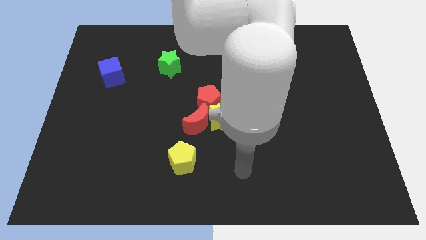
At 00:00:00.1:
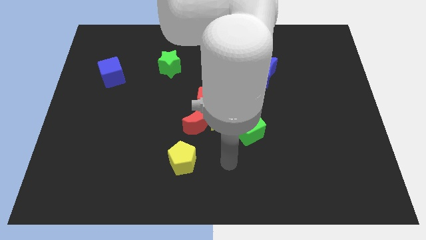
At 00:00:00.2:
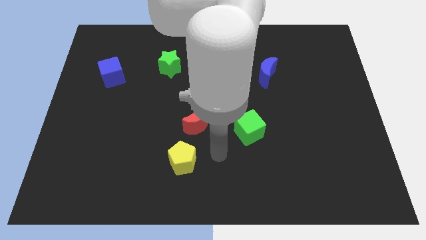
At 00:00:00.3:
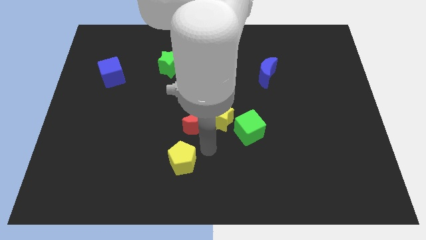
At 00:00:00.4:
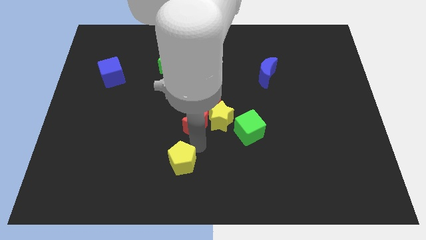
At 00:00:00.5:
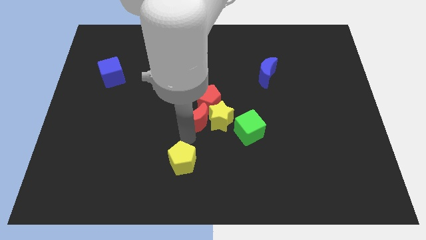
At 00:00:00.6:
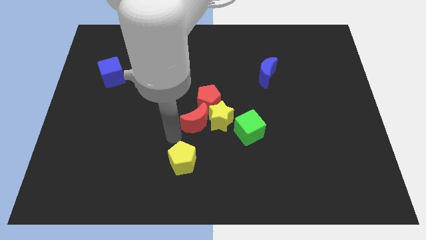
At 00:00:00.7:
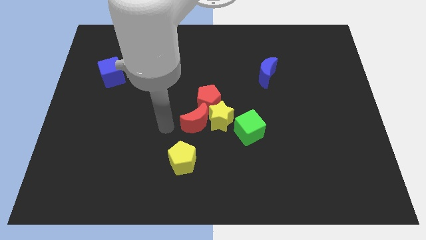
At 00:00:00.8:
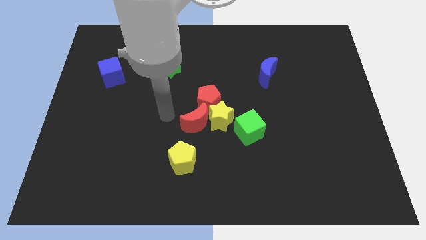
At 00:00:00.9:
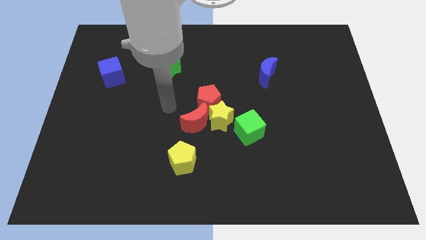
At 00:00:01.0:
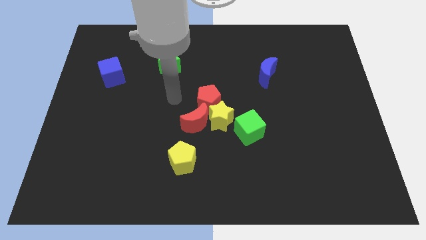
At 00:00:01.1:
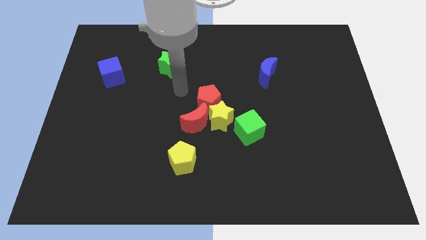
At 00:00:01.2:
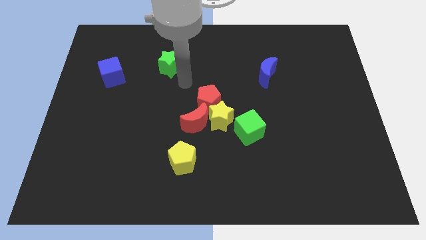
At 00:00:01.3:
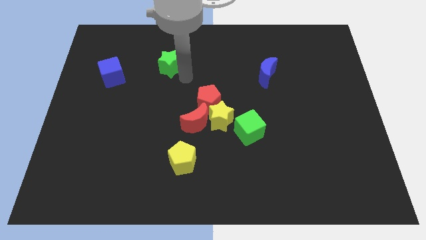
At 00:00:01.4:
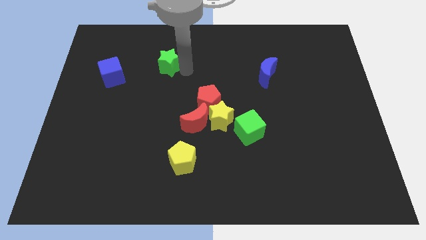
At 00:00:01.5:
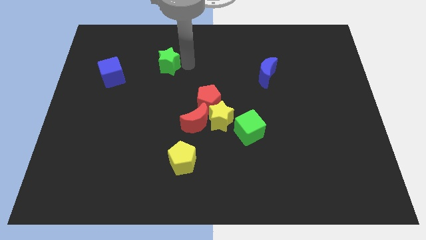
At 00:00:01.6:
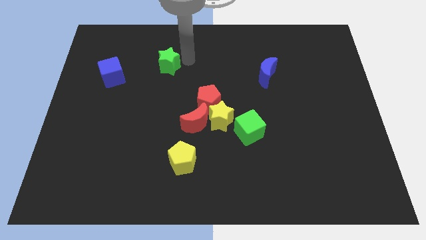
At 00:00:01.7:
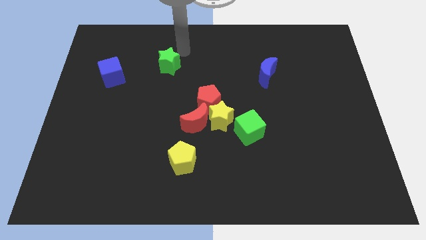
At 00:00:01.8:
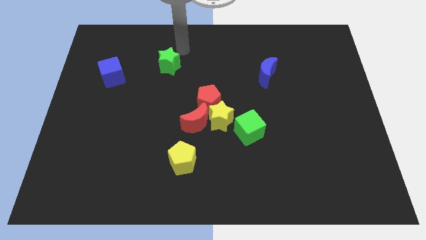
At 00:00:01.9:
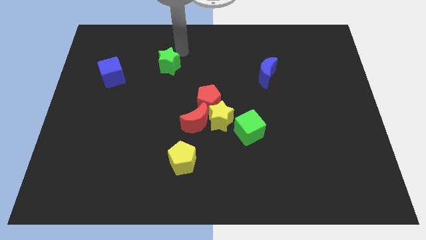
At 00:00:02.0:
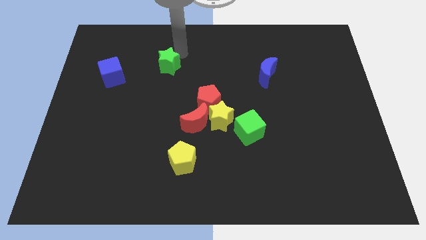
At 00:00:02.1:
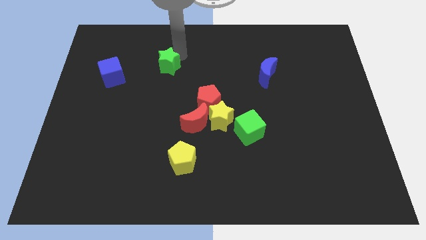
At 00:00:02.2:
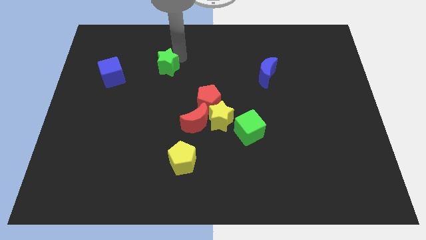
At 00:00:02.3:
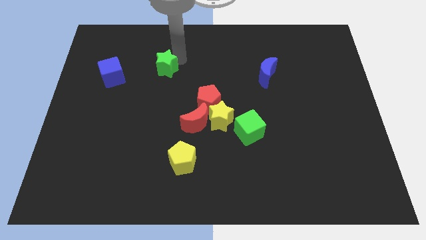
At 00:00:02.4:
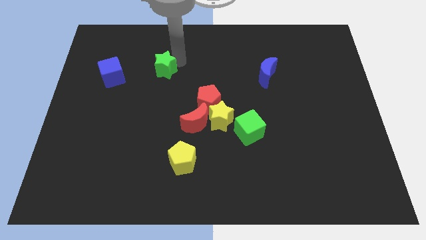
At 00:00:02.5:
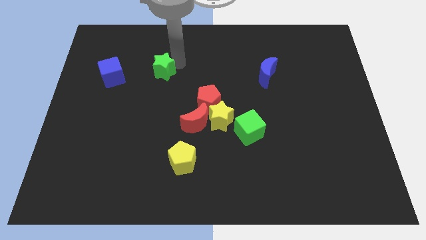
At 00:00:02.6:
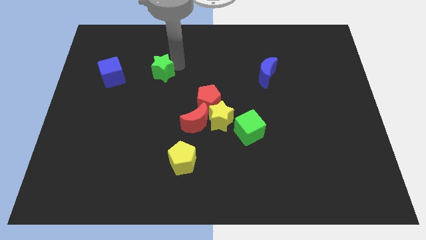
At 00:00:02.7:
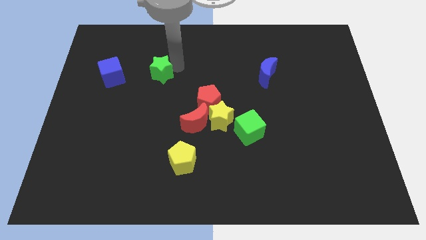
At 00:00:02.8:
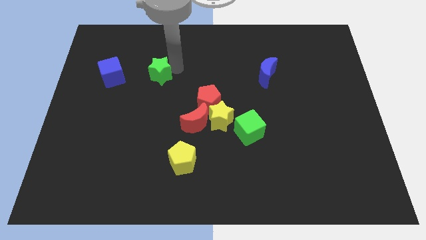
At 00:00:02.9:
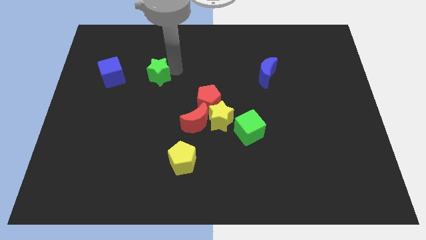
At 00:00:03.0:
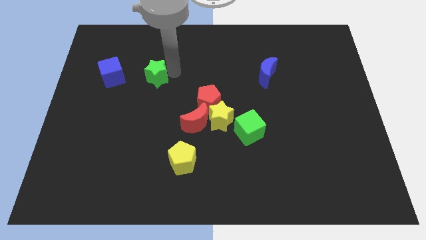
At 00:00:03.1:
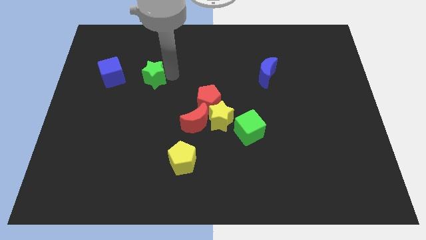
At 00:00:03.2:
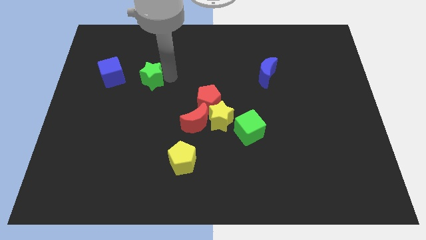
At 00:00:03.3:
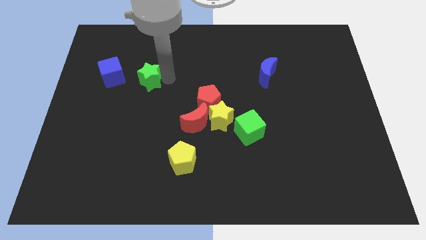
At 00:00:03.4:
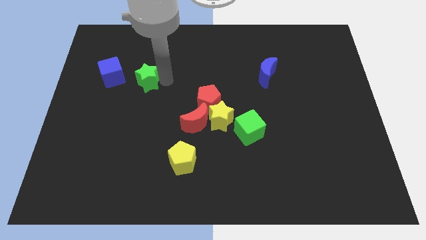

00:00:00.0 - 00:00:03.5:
slide the green star downwards and then left slightly

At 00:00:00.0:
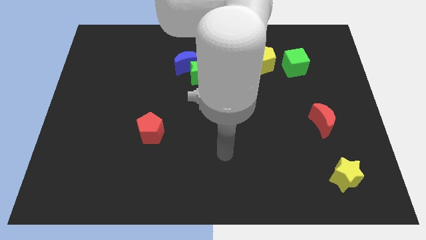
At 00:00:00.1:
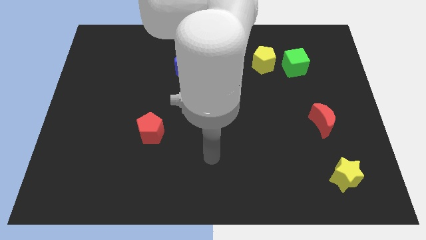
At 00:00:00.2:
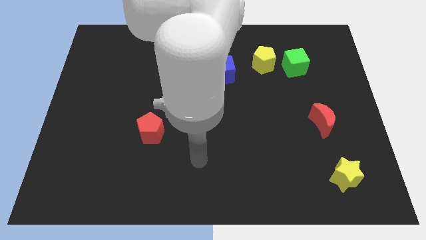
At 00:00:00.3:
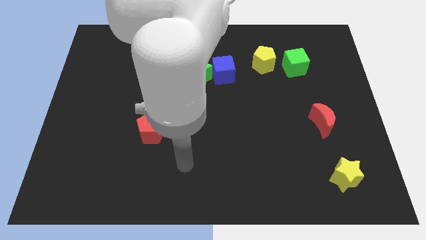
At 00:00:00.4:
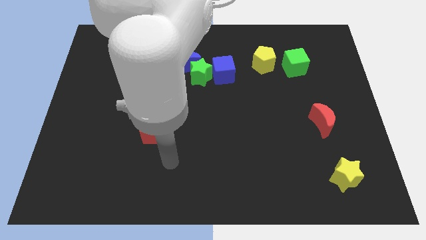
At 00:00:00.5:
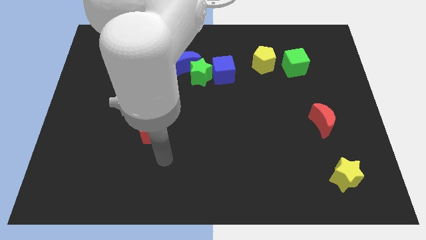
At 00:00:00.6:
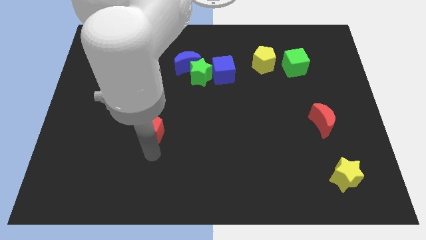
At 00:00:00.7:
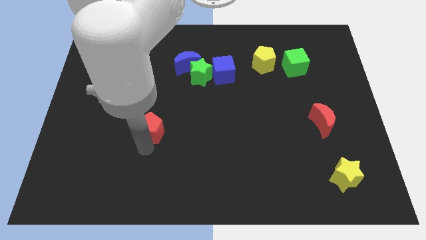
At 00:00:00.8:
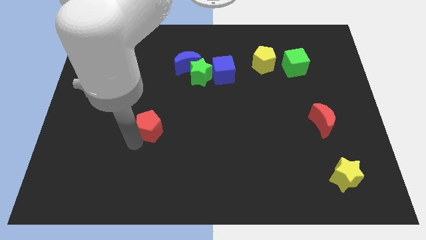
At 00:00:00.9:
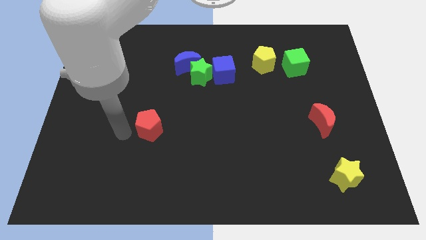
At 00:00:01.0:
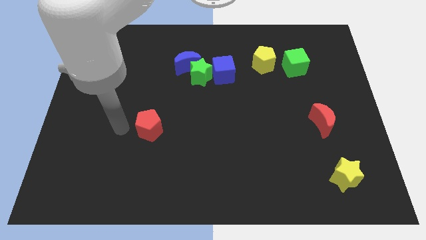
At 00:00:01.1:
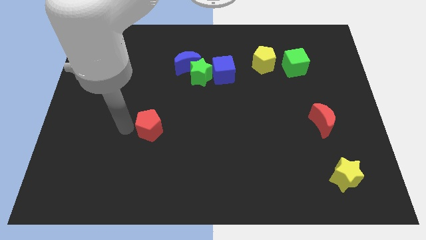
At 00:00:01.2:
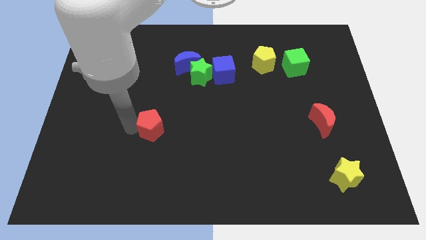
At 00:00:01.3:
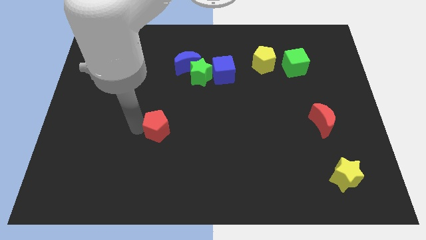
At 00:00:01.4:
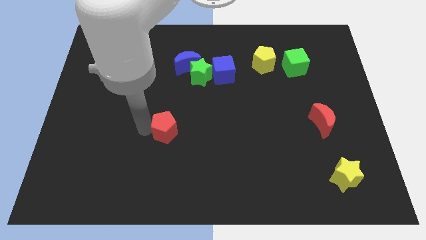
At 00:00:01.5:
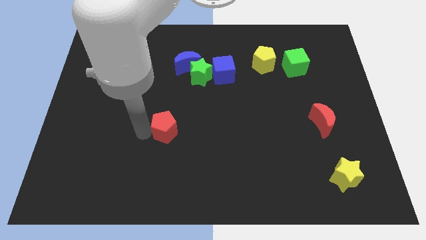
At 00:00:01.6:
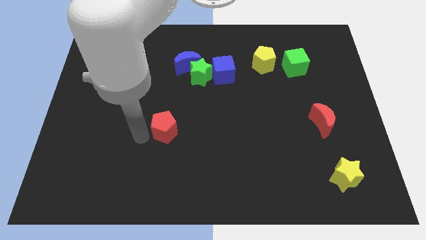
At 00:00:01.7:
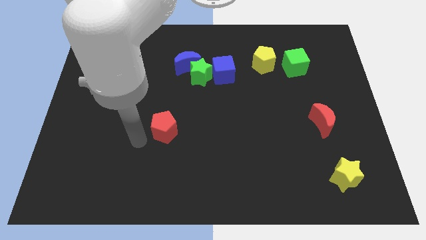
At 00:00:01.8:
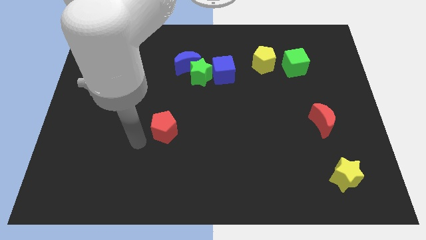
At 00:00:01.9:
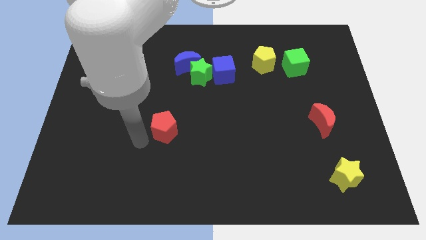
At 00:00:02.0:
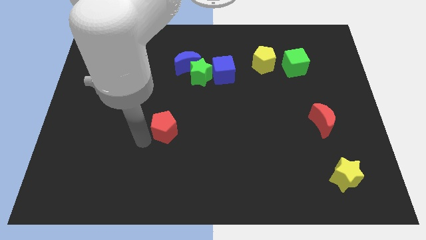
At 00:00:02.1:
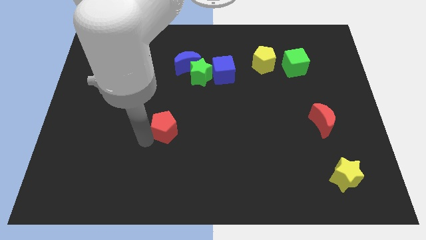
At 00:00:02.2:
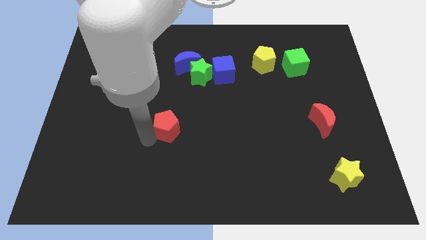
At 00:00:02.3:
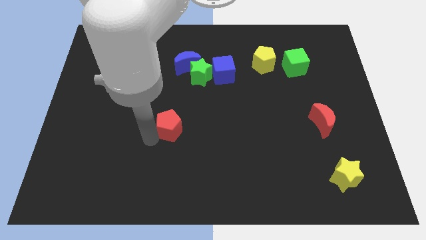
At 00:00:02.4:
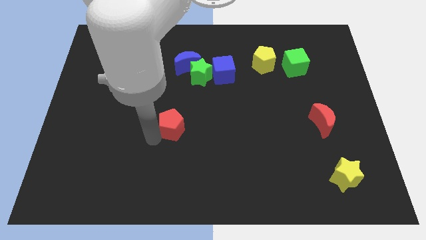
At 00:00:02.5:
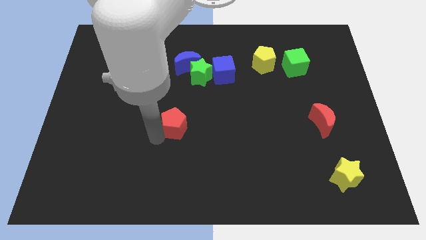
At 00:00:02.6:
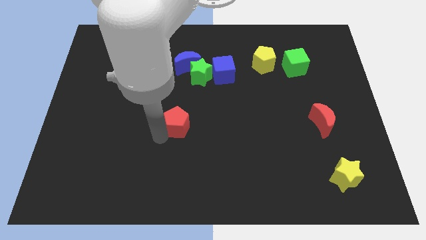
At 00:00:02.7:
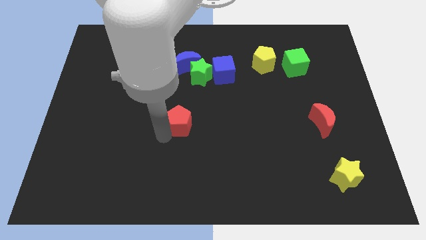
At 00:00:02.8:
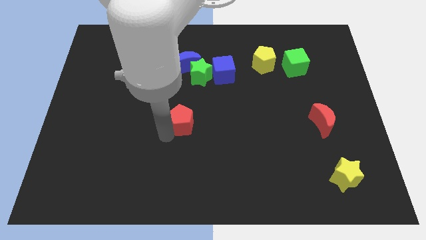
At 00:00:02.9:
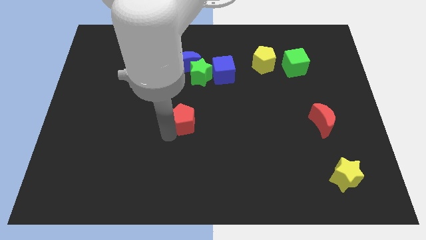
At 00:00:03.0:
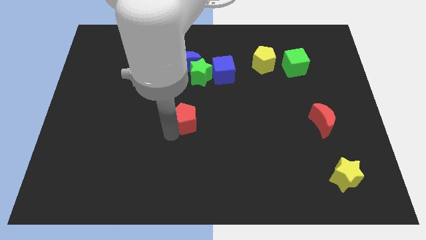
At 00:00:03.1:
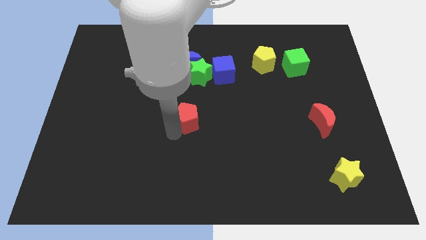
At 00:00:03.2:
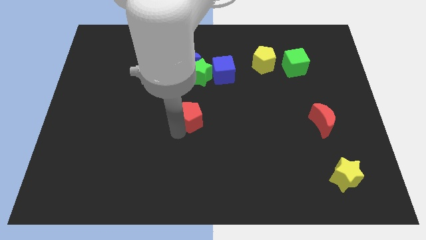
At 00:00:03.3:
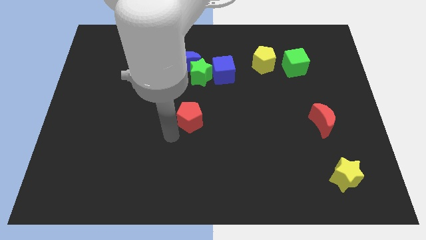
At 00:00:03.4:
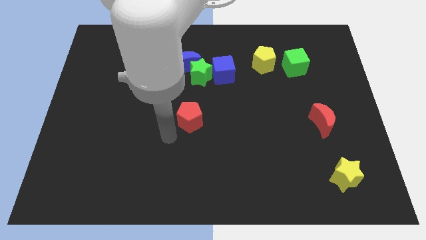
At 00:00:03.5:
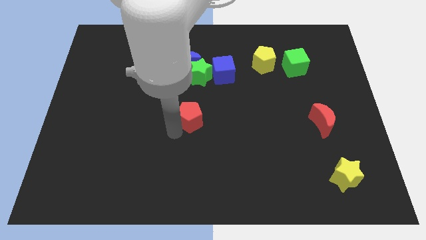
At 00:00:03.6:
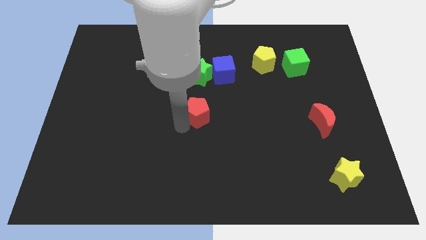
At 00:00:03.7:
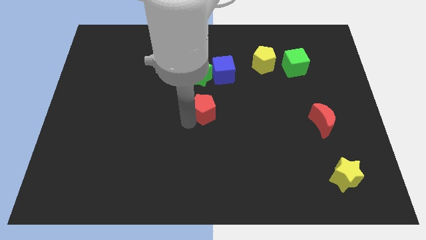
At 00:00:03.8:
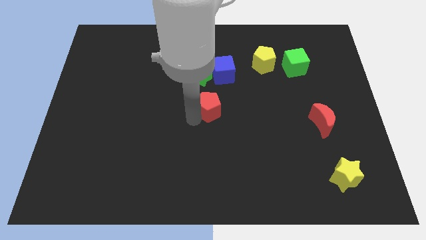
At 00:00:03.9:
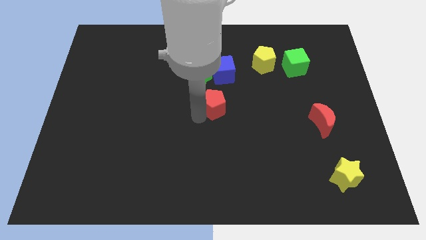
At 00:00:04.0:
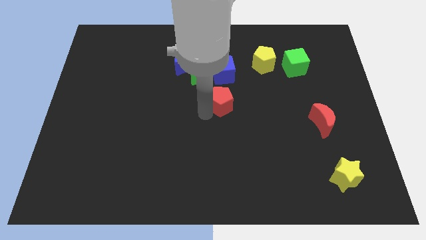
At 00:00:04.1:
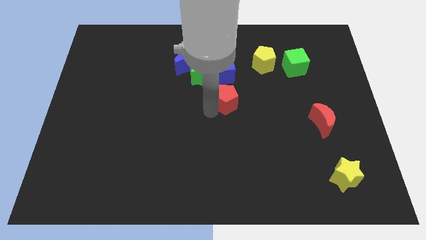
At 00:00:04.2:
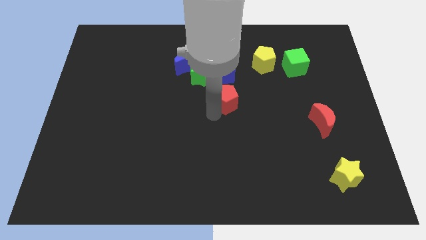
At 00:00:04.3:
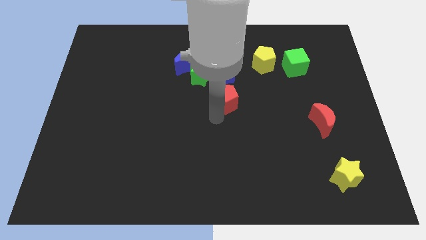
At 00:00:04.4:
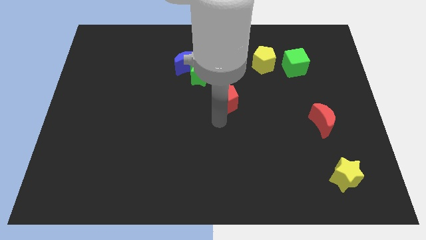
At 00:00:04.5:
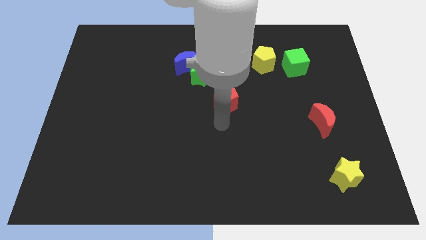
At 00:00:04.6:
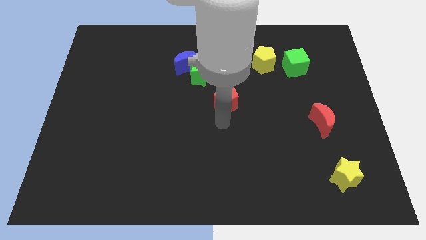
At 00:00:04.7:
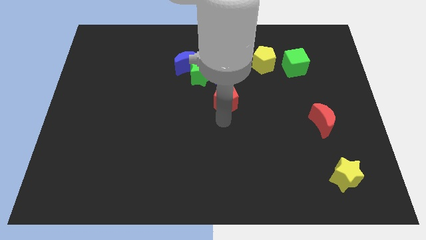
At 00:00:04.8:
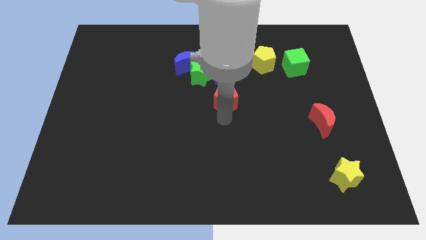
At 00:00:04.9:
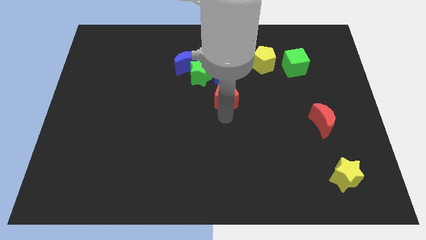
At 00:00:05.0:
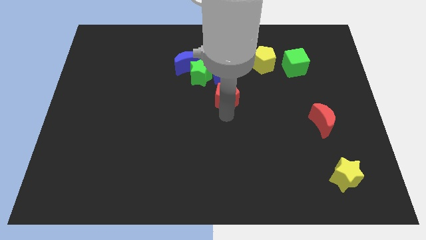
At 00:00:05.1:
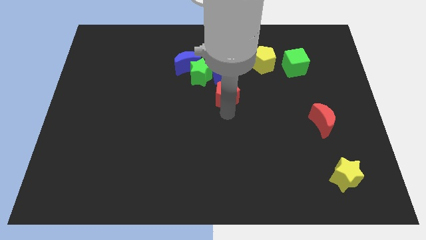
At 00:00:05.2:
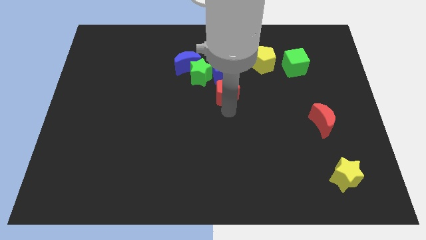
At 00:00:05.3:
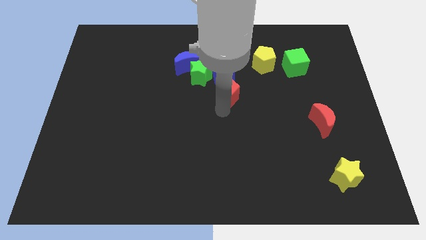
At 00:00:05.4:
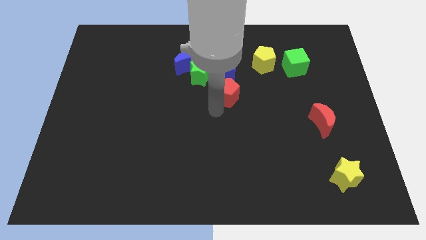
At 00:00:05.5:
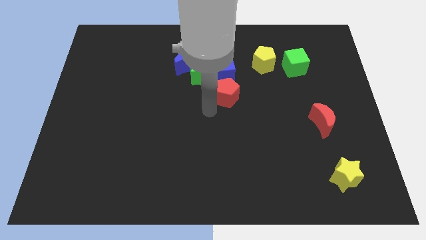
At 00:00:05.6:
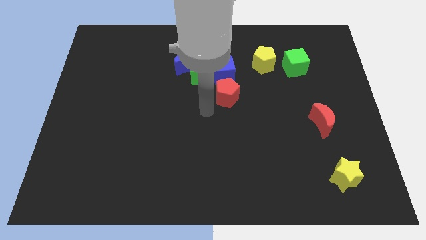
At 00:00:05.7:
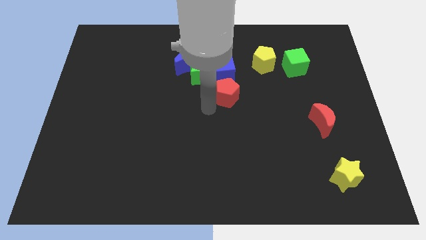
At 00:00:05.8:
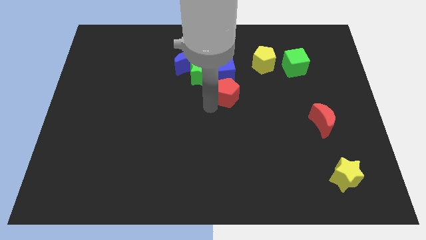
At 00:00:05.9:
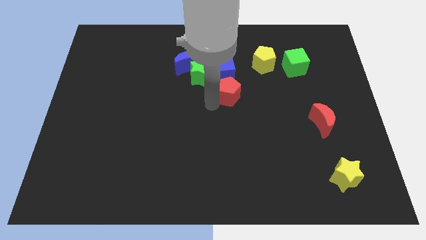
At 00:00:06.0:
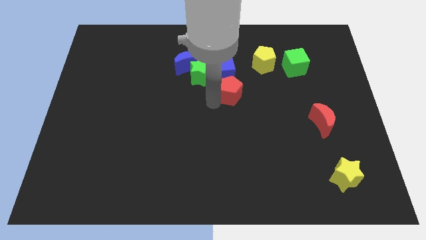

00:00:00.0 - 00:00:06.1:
slide the red pentagon upwards and then right
